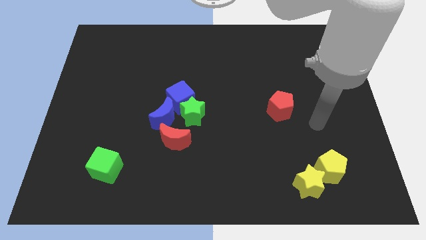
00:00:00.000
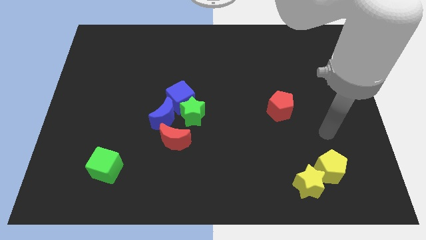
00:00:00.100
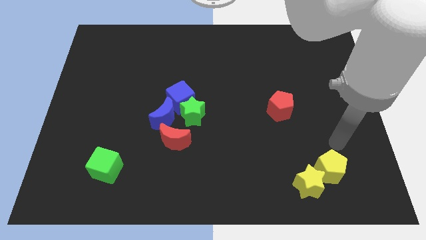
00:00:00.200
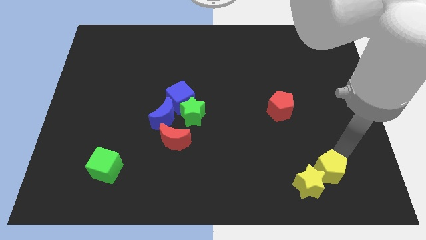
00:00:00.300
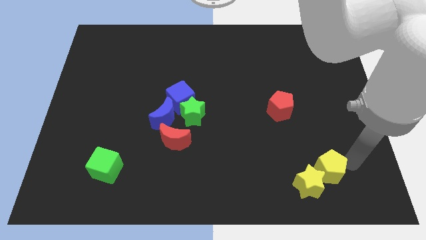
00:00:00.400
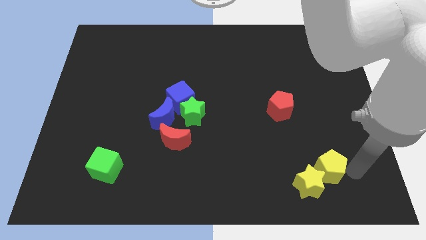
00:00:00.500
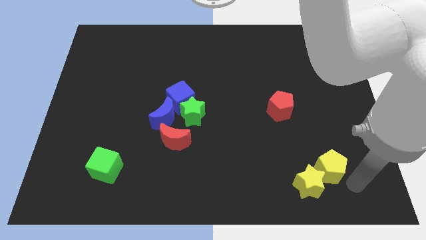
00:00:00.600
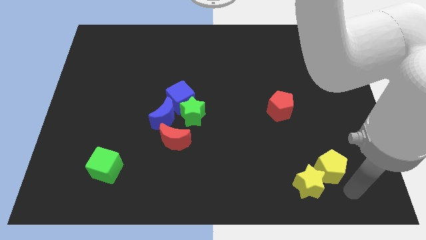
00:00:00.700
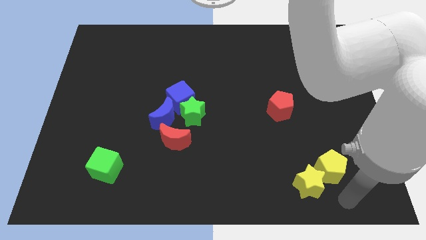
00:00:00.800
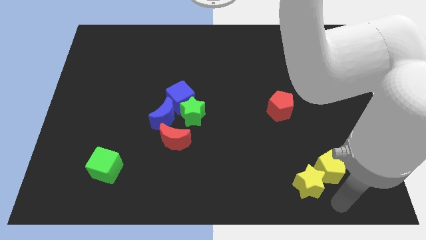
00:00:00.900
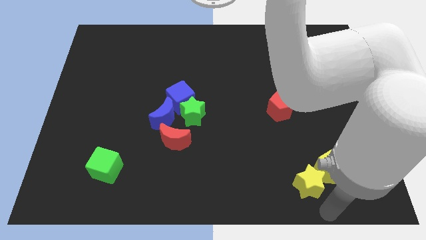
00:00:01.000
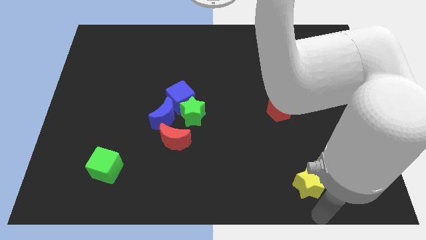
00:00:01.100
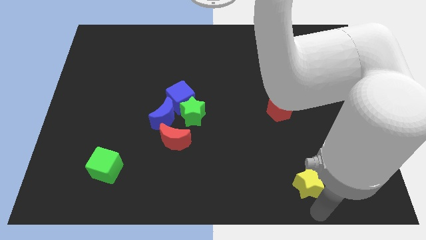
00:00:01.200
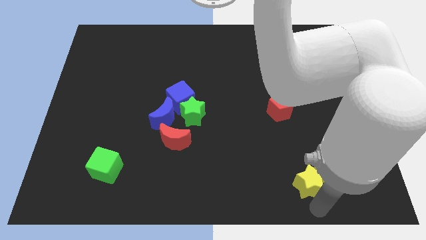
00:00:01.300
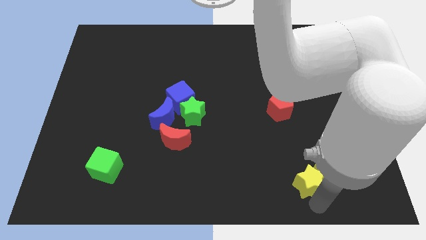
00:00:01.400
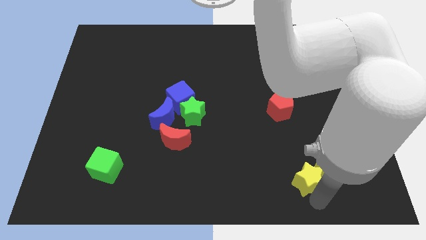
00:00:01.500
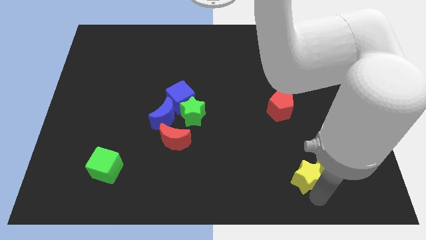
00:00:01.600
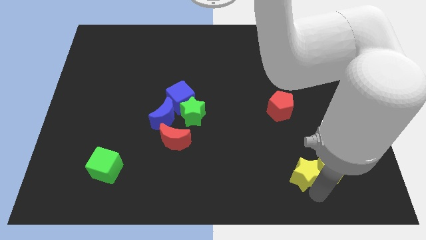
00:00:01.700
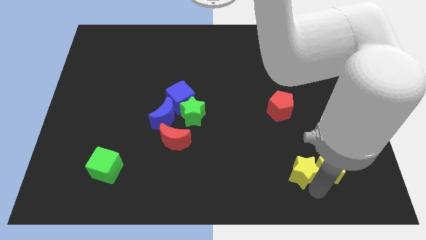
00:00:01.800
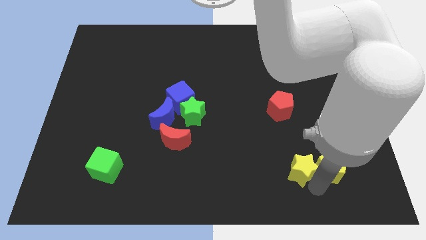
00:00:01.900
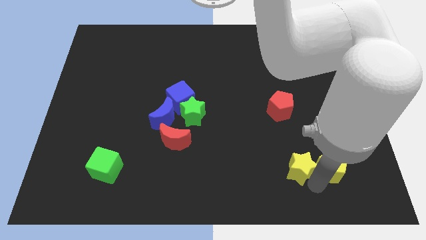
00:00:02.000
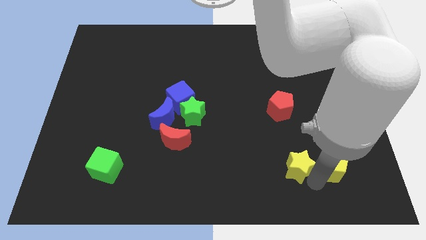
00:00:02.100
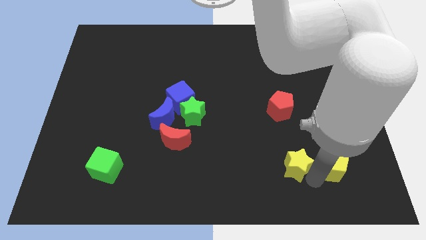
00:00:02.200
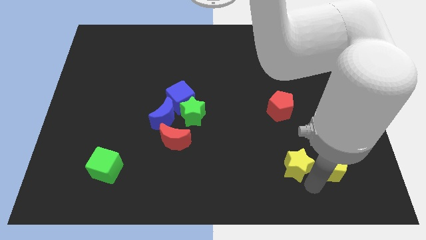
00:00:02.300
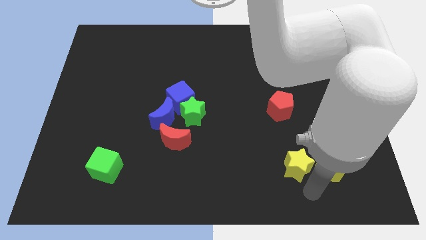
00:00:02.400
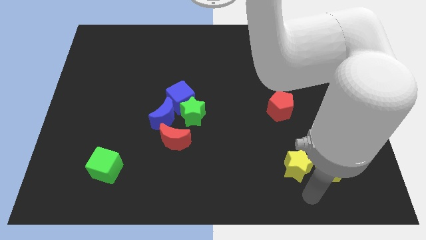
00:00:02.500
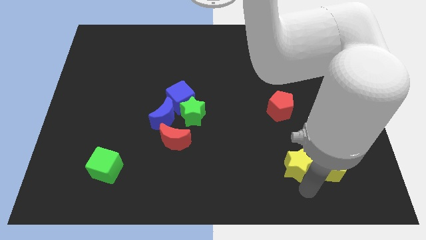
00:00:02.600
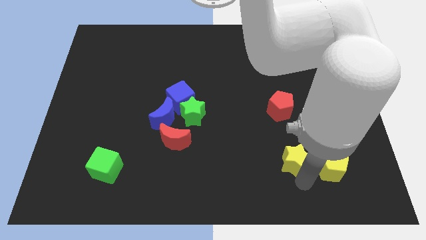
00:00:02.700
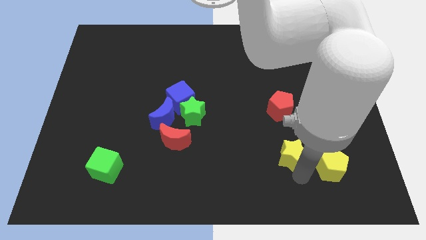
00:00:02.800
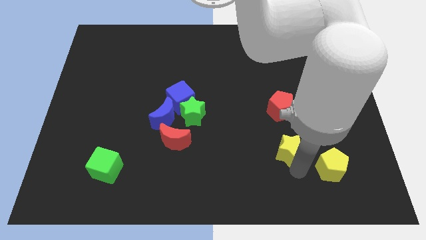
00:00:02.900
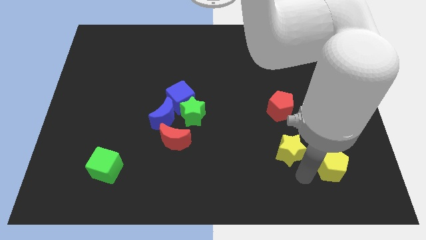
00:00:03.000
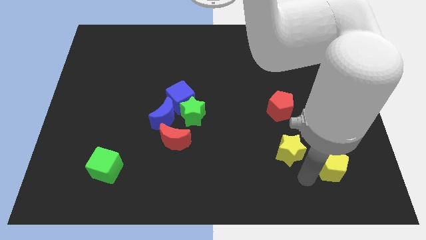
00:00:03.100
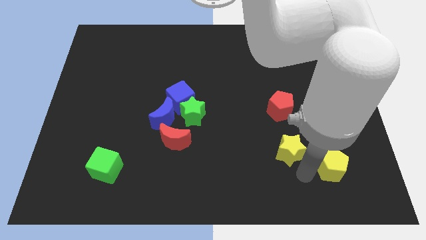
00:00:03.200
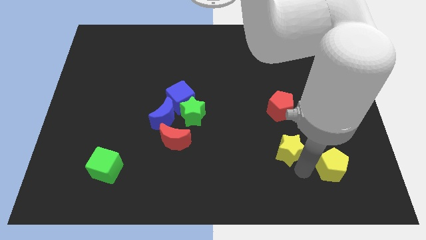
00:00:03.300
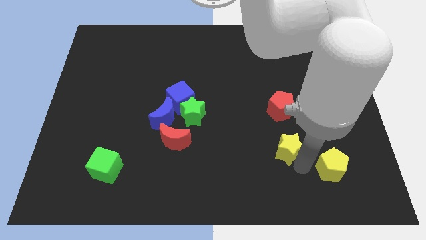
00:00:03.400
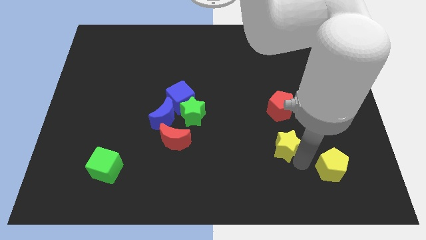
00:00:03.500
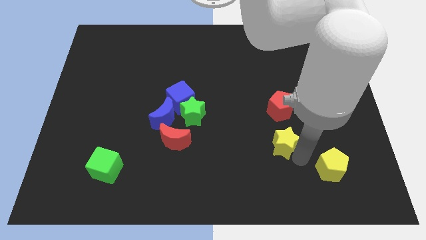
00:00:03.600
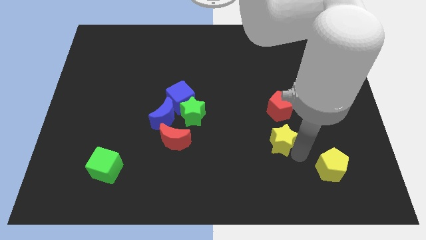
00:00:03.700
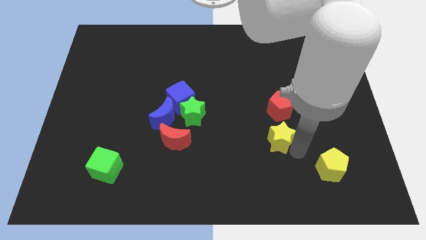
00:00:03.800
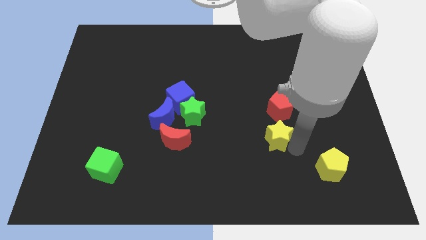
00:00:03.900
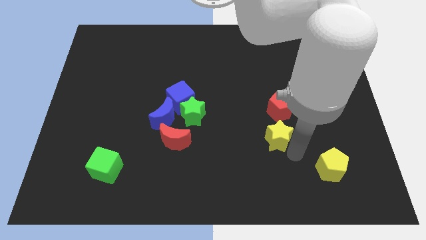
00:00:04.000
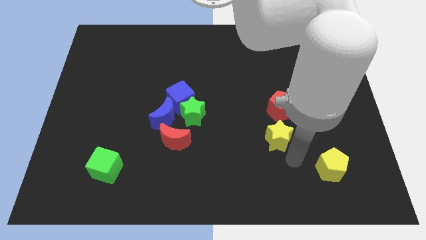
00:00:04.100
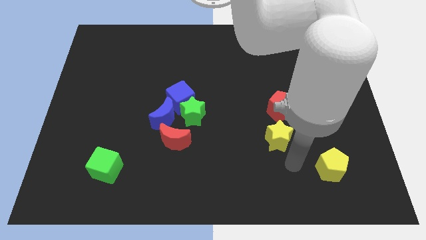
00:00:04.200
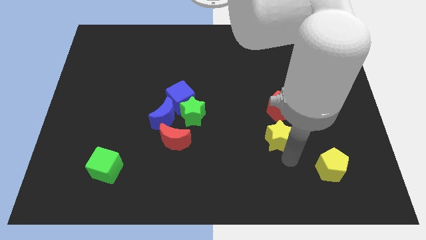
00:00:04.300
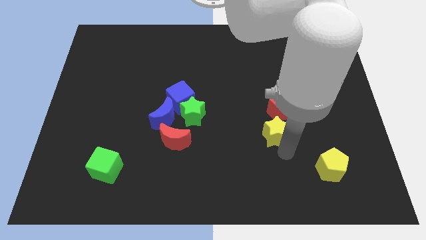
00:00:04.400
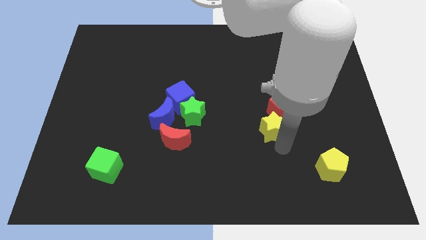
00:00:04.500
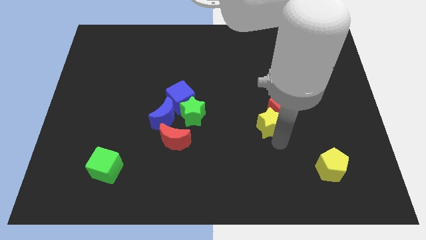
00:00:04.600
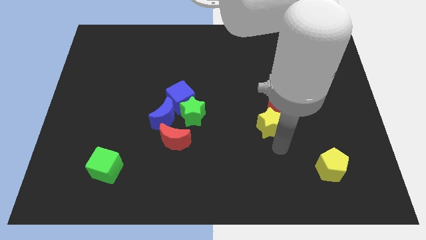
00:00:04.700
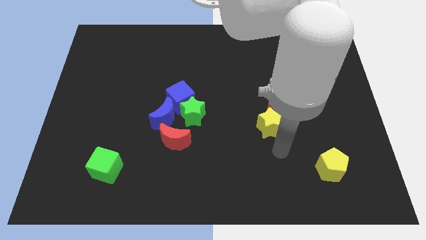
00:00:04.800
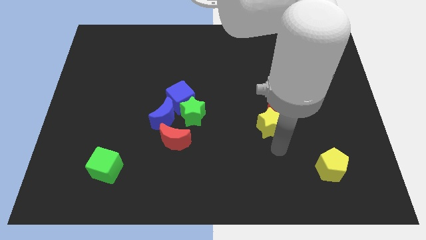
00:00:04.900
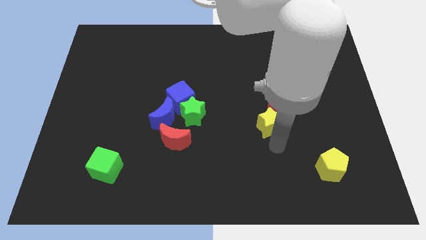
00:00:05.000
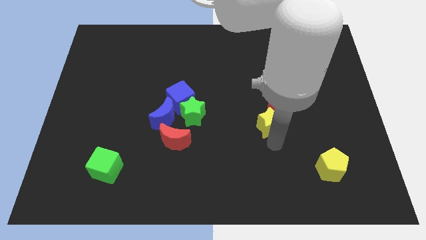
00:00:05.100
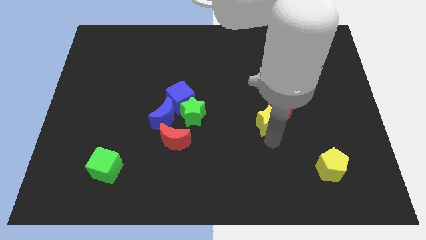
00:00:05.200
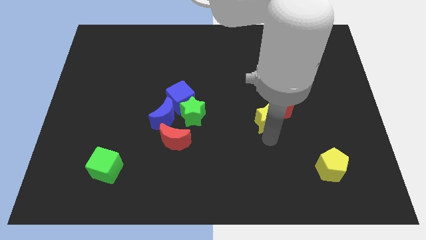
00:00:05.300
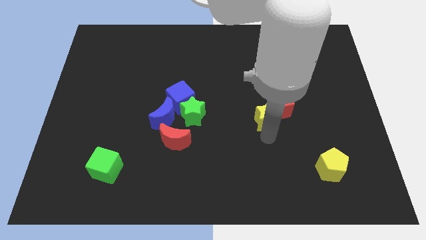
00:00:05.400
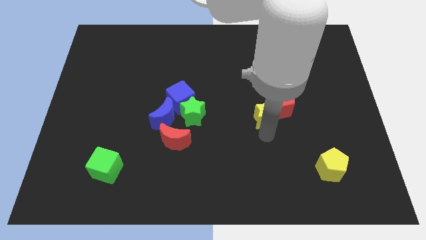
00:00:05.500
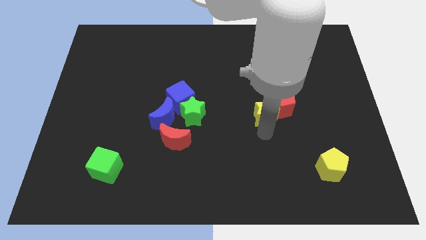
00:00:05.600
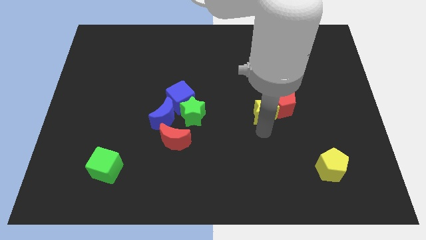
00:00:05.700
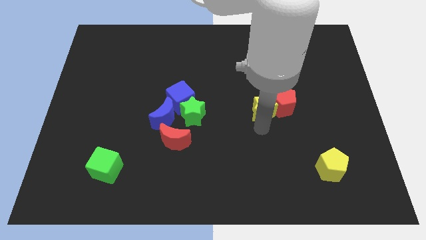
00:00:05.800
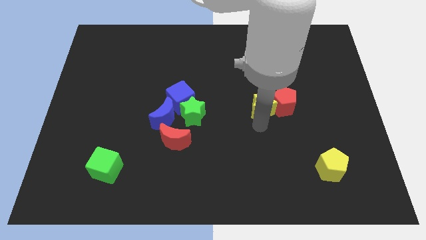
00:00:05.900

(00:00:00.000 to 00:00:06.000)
push the yellow star to the top left side of the red pentagon

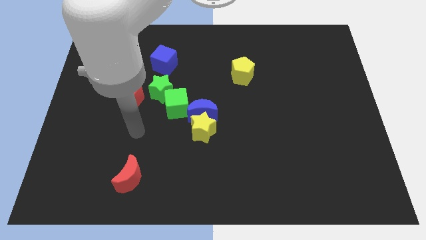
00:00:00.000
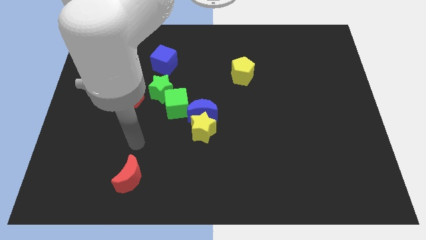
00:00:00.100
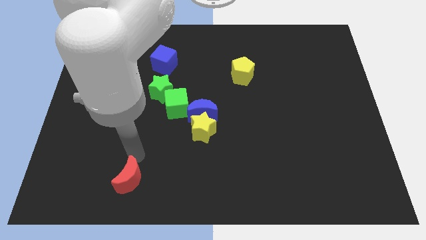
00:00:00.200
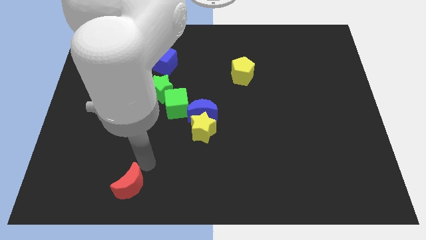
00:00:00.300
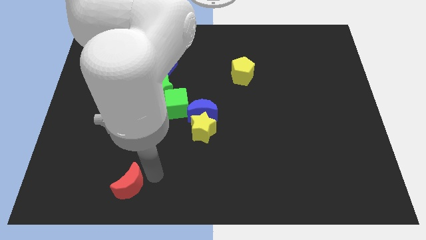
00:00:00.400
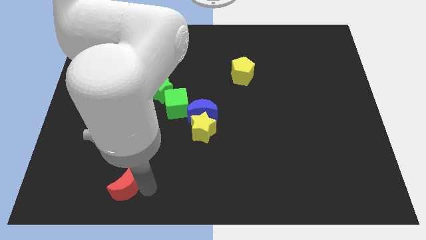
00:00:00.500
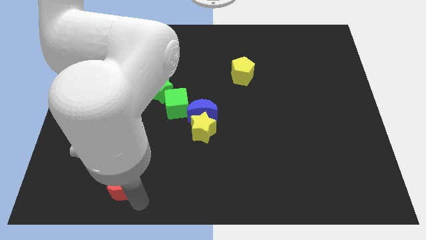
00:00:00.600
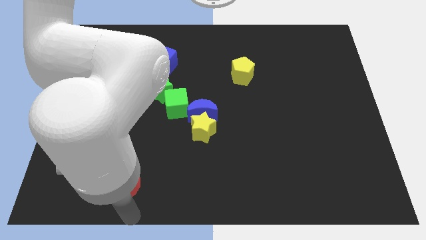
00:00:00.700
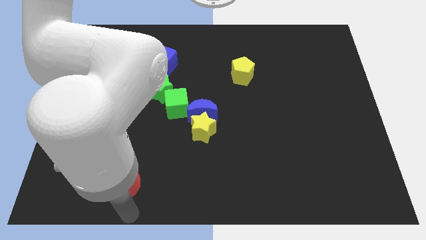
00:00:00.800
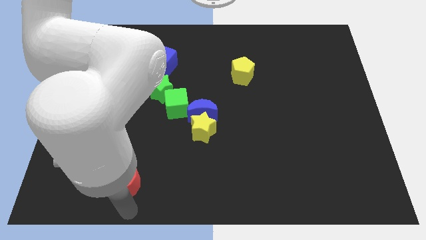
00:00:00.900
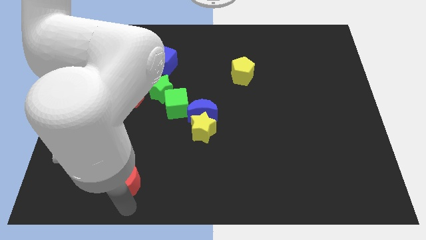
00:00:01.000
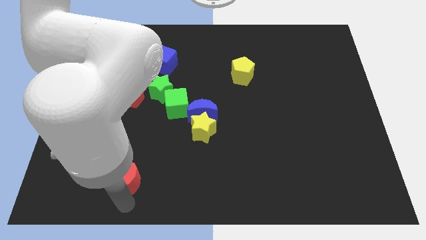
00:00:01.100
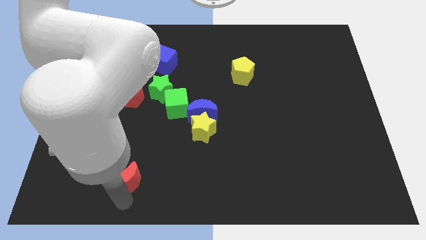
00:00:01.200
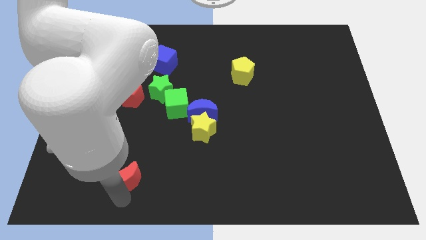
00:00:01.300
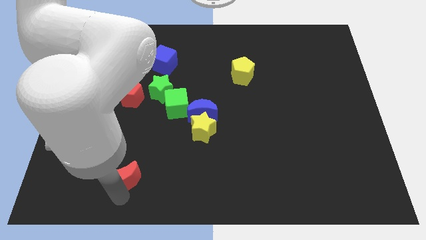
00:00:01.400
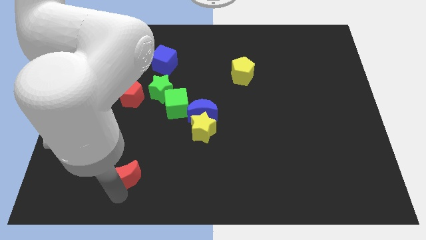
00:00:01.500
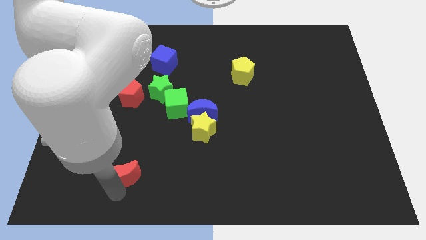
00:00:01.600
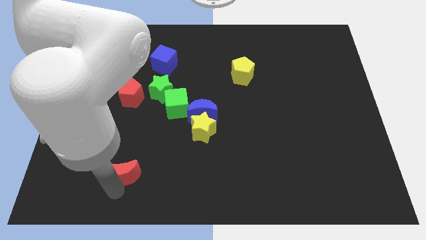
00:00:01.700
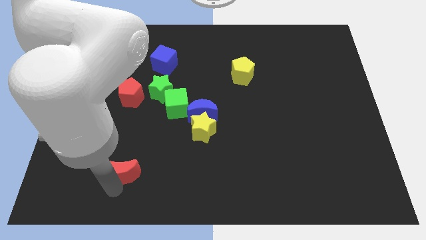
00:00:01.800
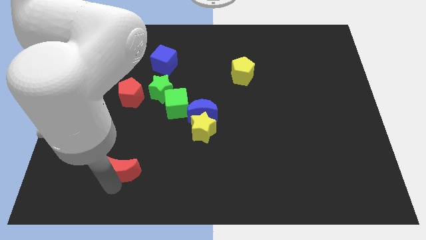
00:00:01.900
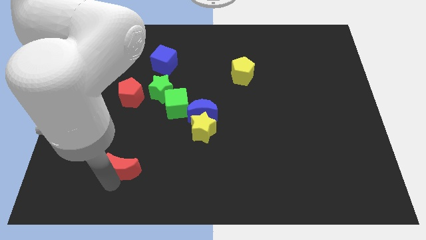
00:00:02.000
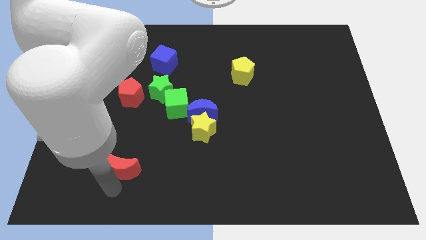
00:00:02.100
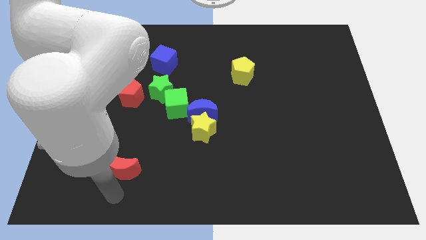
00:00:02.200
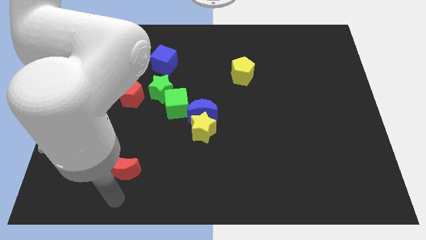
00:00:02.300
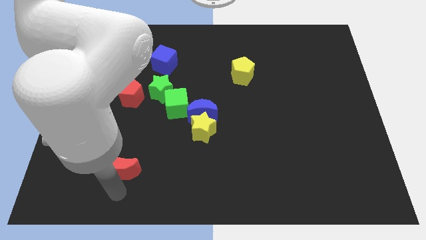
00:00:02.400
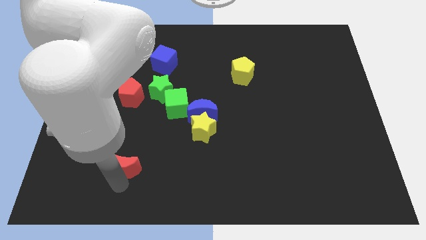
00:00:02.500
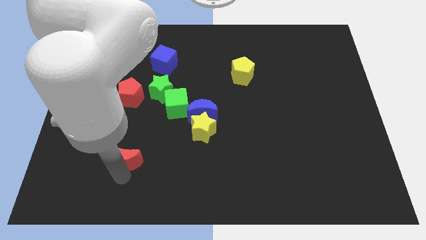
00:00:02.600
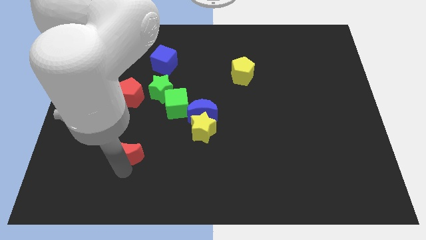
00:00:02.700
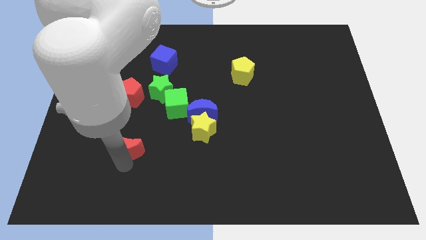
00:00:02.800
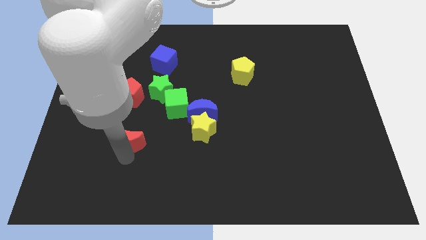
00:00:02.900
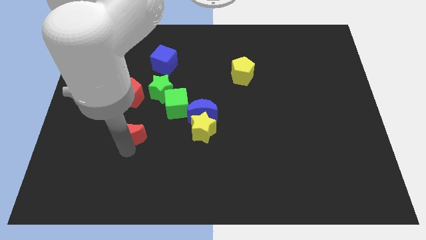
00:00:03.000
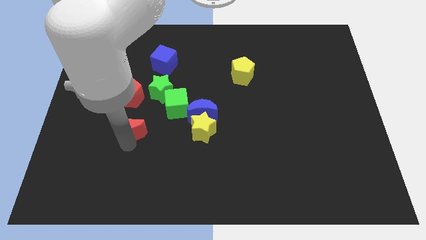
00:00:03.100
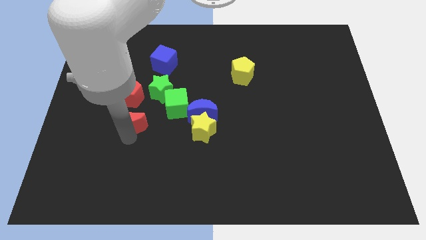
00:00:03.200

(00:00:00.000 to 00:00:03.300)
move the red moon to the bottom left of the green star
